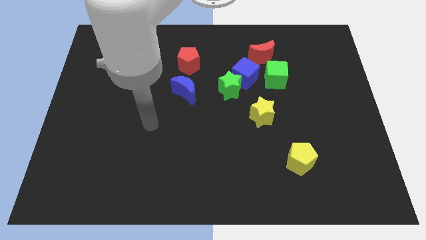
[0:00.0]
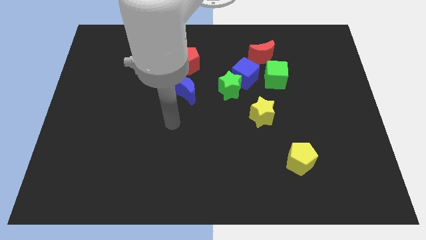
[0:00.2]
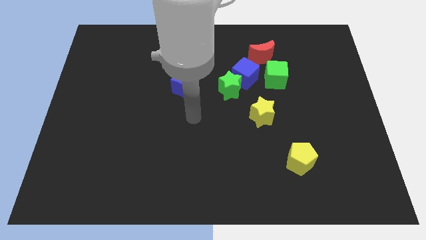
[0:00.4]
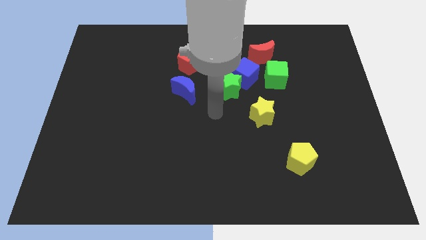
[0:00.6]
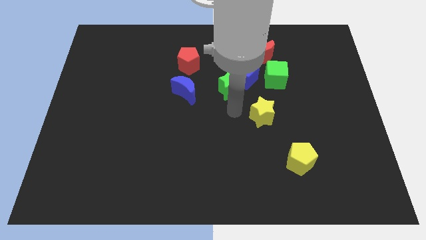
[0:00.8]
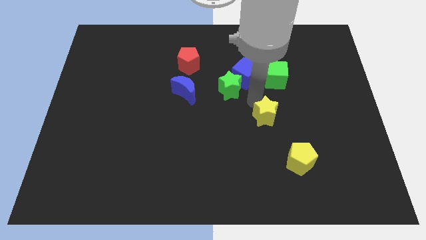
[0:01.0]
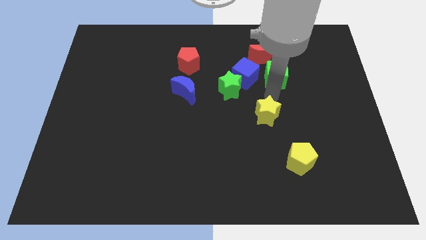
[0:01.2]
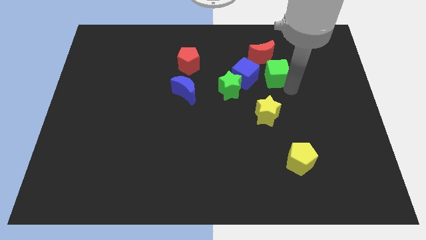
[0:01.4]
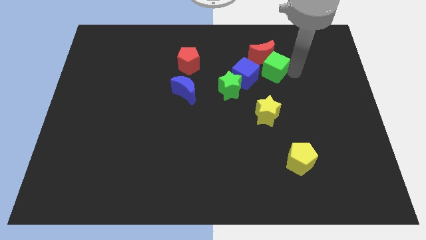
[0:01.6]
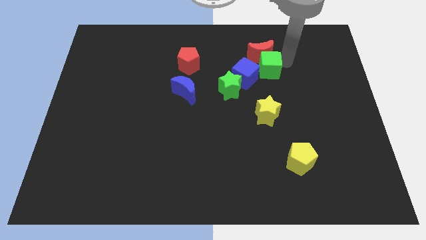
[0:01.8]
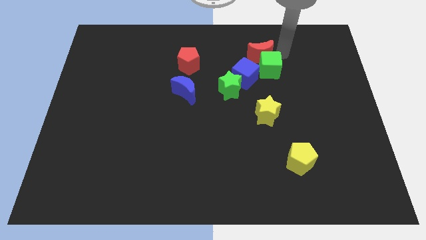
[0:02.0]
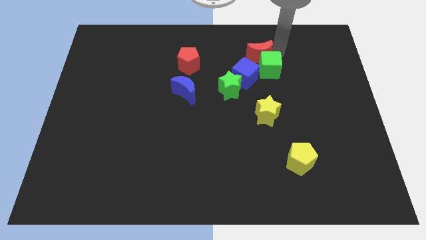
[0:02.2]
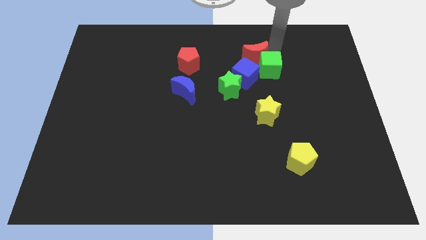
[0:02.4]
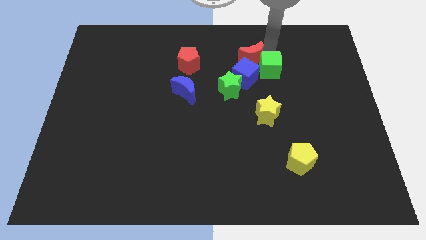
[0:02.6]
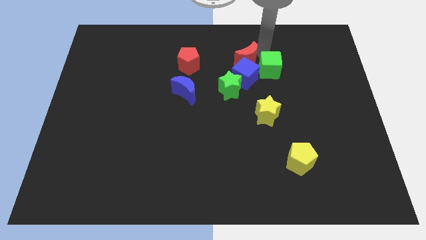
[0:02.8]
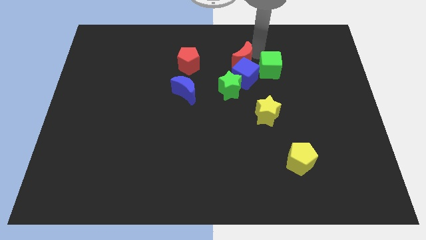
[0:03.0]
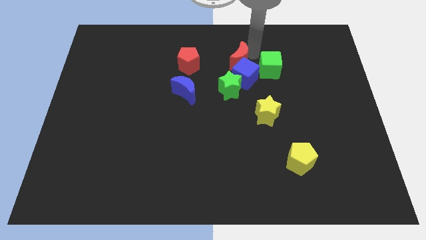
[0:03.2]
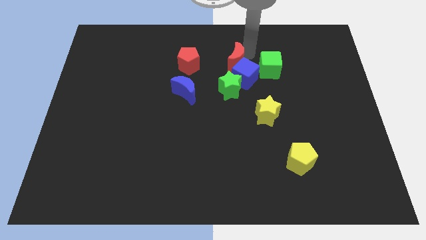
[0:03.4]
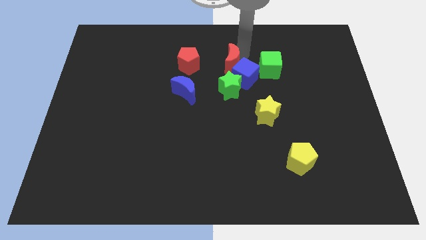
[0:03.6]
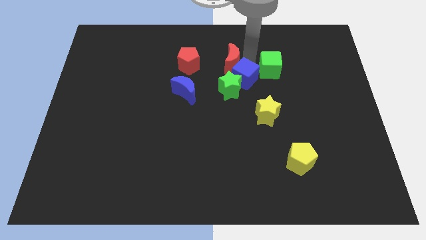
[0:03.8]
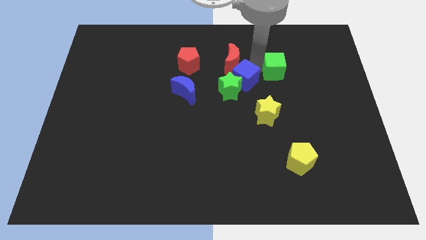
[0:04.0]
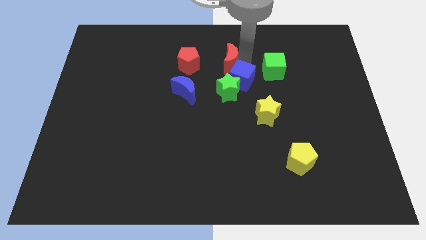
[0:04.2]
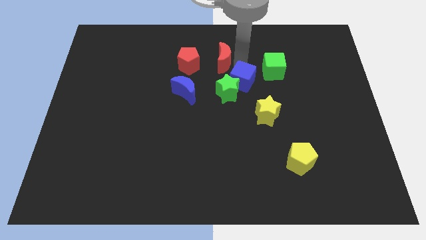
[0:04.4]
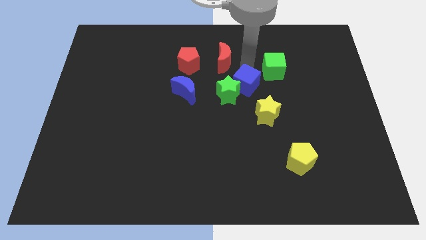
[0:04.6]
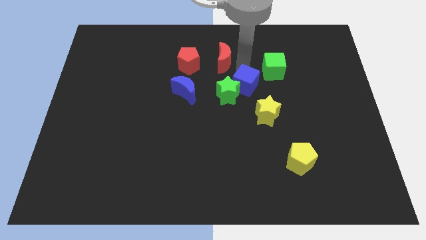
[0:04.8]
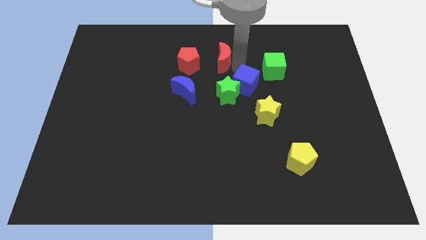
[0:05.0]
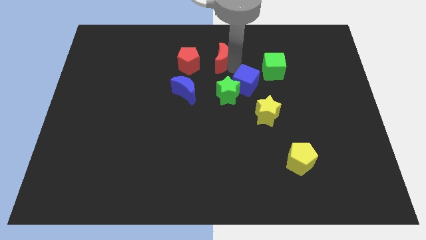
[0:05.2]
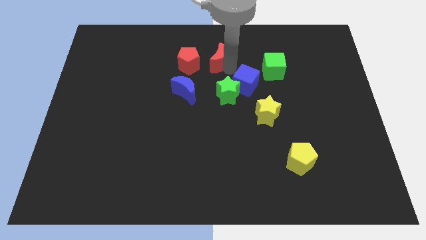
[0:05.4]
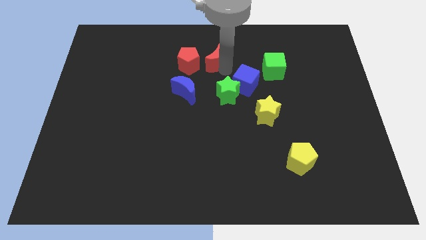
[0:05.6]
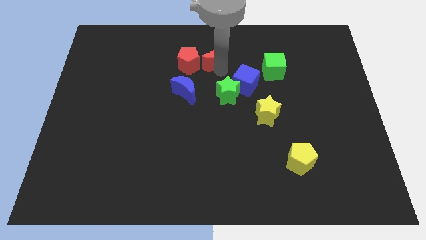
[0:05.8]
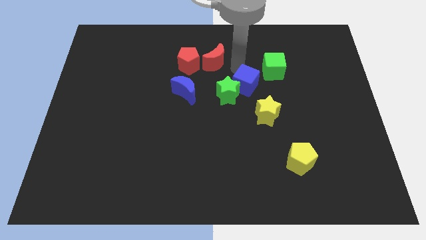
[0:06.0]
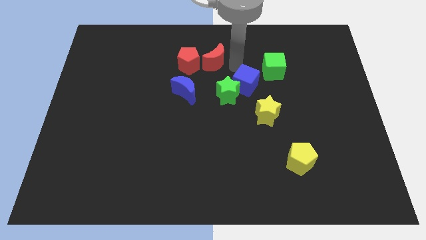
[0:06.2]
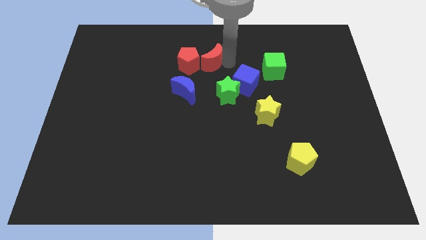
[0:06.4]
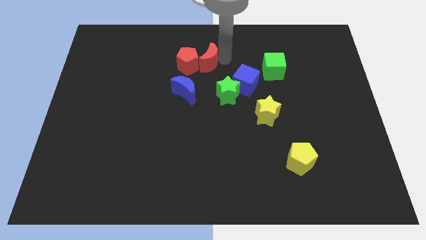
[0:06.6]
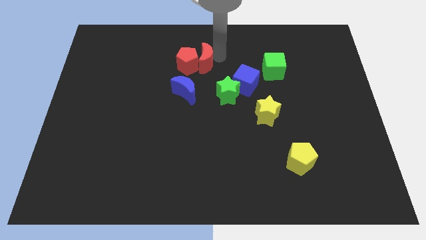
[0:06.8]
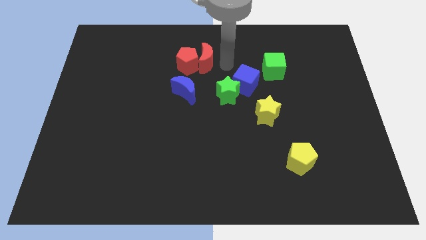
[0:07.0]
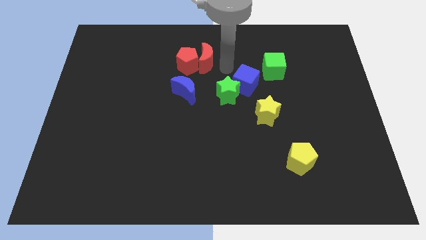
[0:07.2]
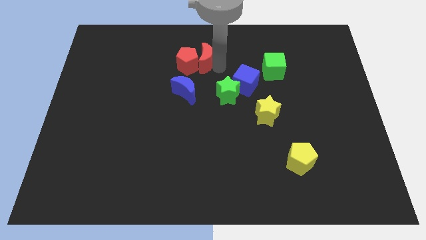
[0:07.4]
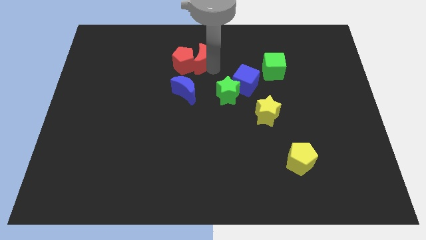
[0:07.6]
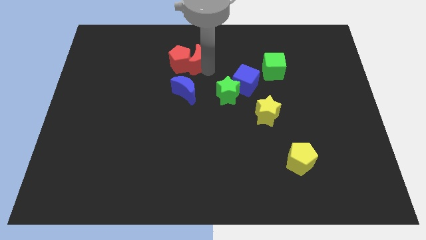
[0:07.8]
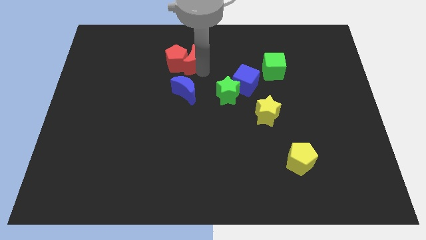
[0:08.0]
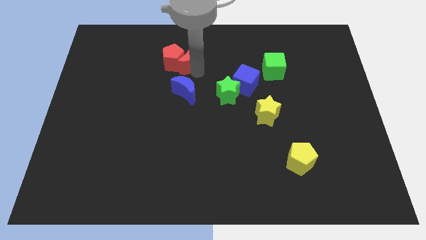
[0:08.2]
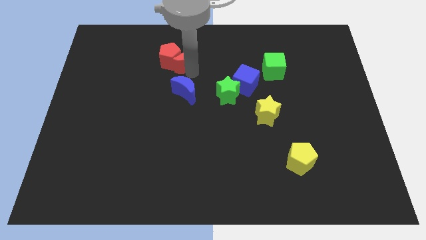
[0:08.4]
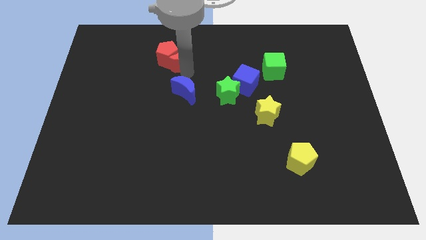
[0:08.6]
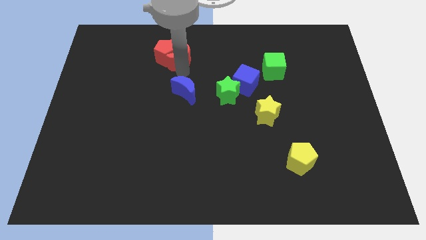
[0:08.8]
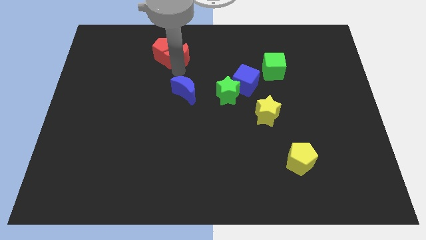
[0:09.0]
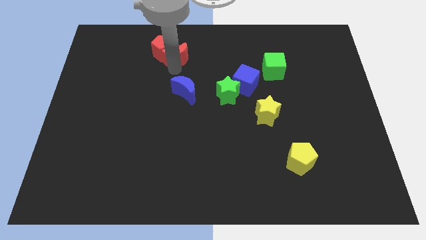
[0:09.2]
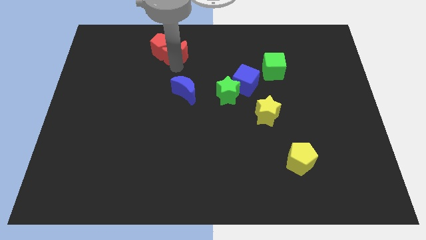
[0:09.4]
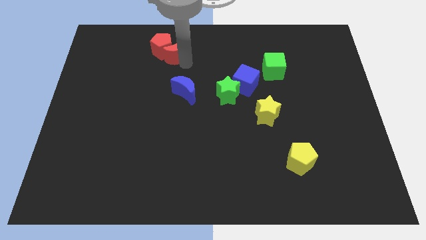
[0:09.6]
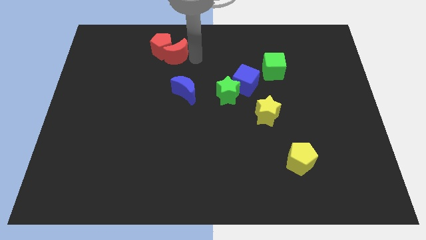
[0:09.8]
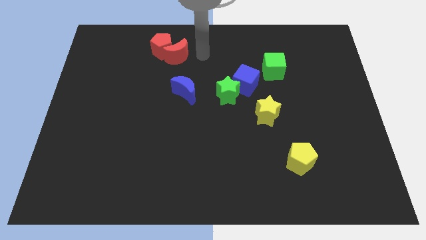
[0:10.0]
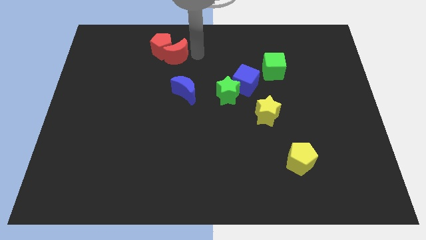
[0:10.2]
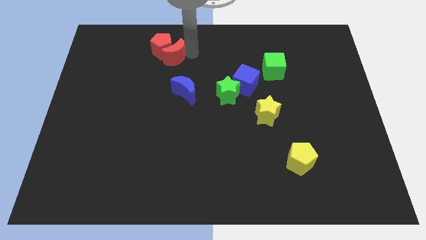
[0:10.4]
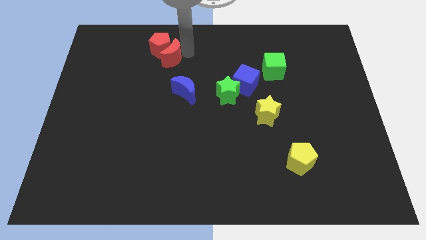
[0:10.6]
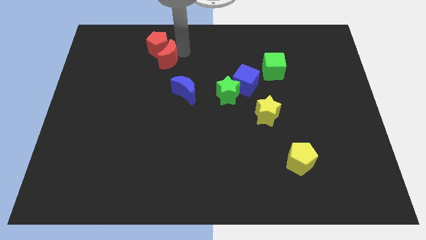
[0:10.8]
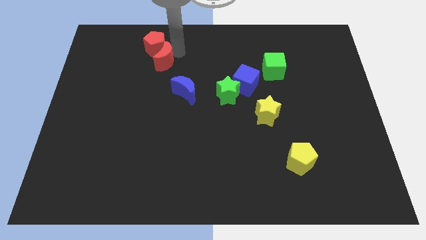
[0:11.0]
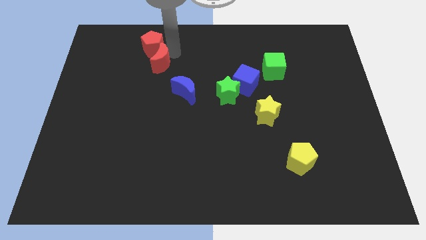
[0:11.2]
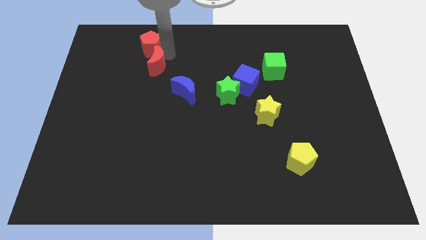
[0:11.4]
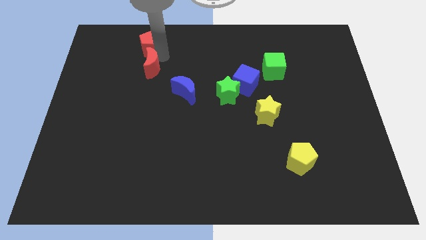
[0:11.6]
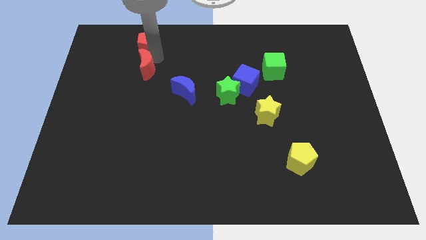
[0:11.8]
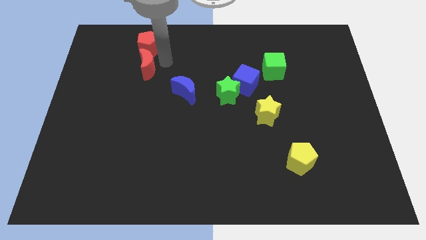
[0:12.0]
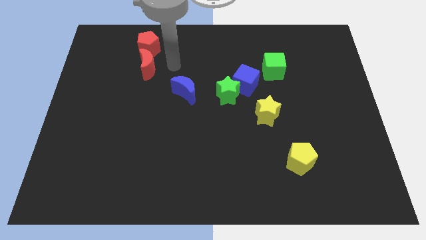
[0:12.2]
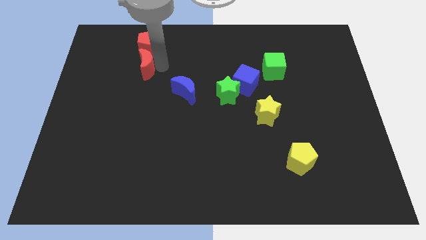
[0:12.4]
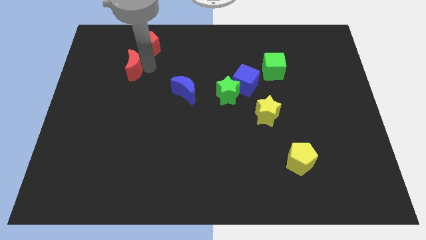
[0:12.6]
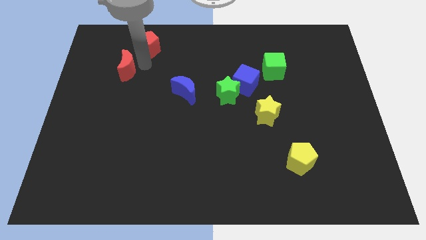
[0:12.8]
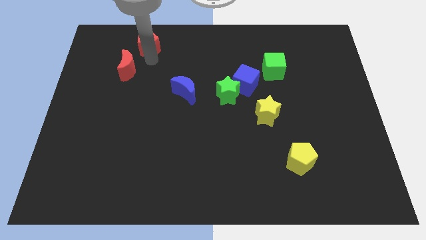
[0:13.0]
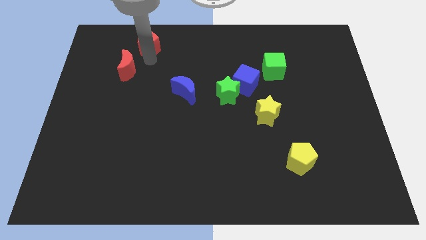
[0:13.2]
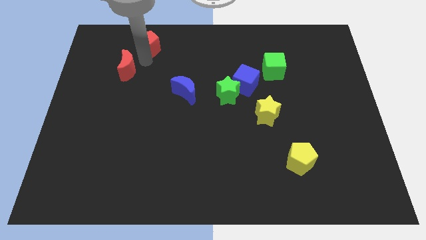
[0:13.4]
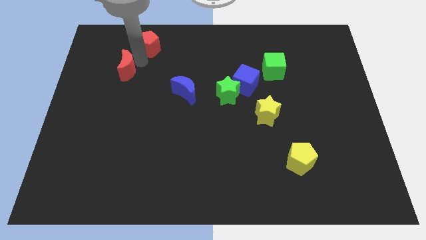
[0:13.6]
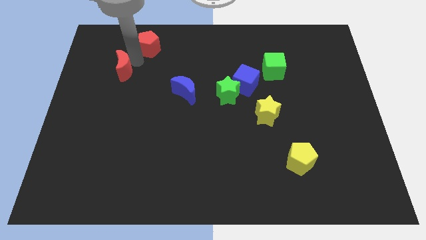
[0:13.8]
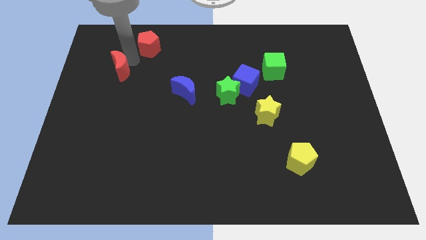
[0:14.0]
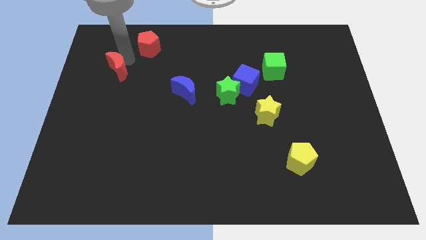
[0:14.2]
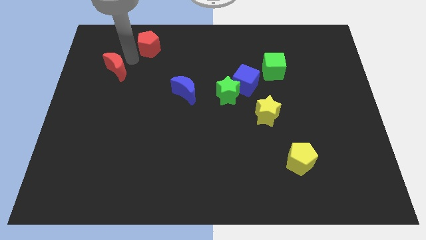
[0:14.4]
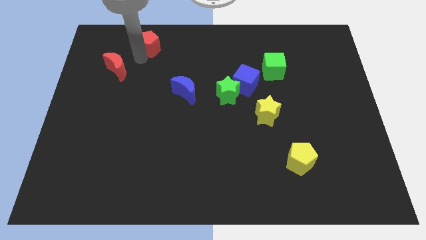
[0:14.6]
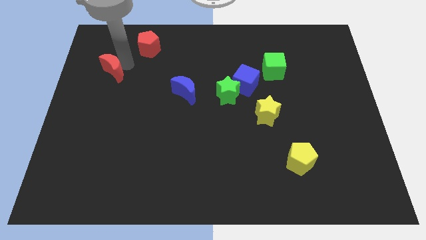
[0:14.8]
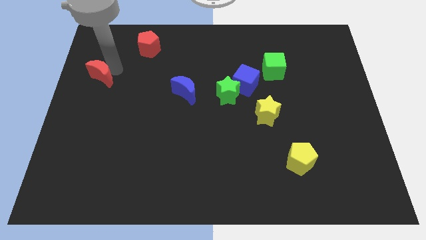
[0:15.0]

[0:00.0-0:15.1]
push the red moon to the left side of the board

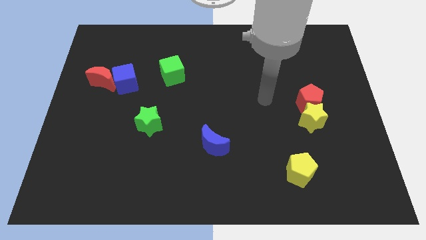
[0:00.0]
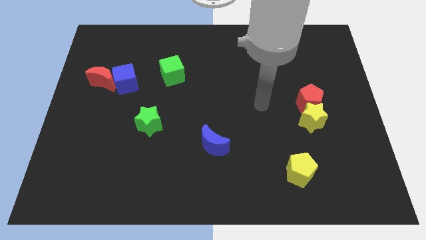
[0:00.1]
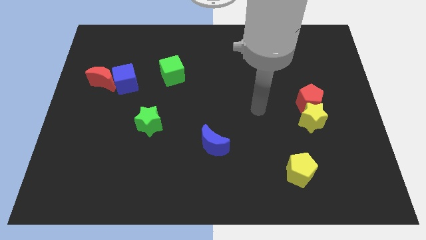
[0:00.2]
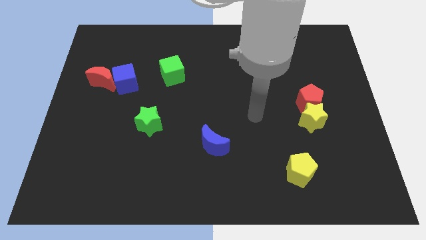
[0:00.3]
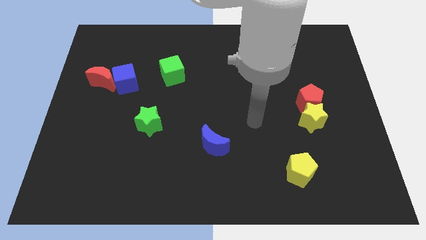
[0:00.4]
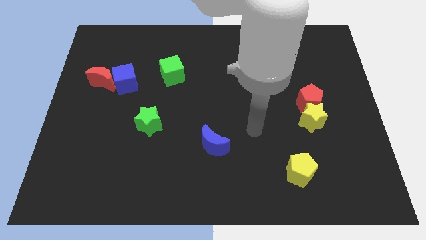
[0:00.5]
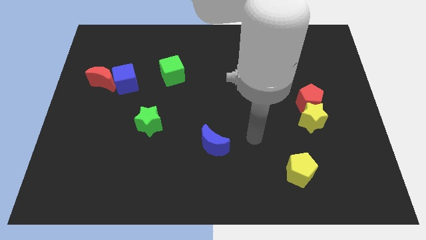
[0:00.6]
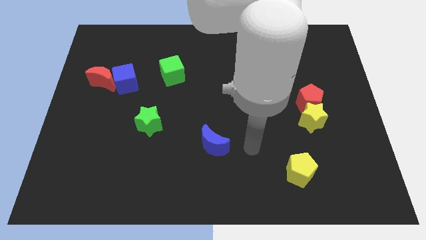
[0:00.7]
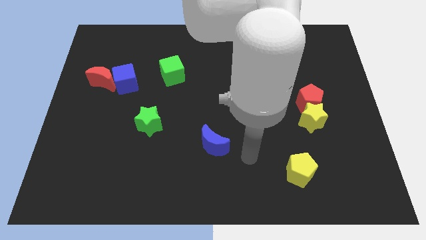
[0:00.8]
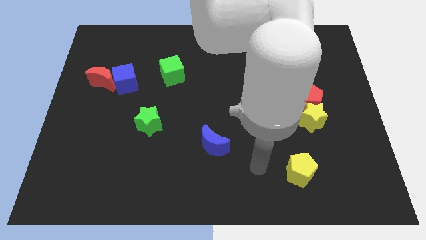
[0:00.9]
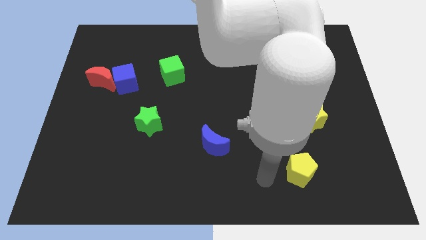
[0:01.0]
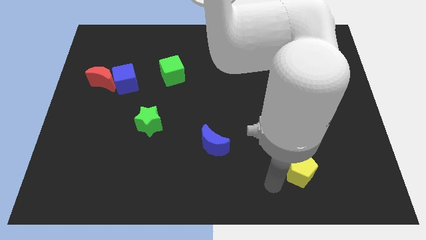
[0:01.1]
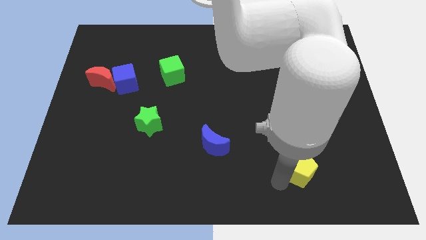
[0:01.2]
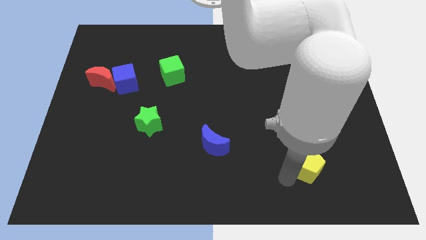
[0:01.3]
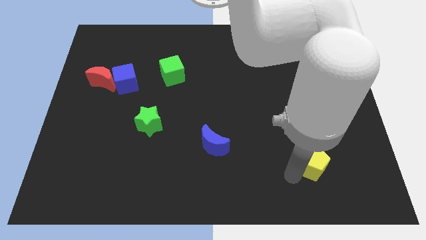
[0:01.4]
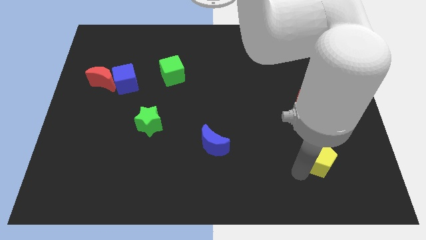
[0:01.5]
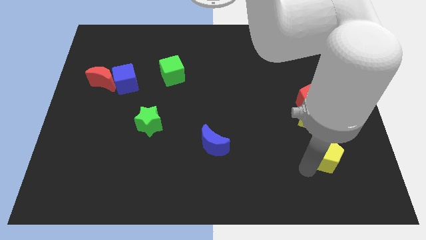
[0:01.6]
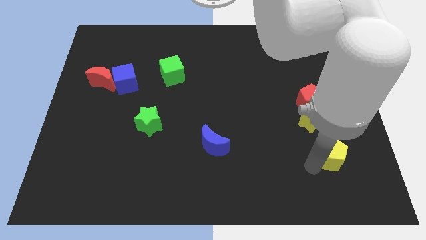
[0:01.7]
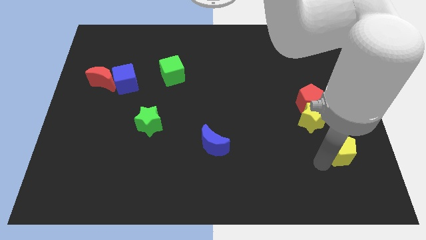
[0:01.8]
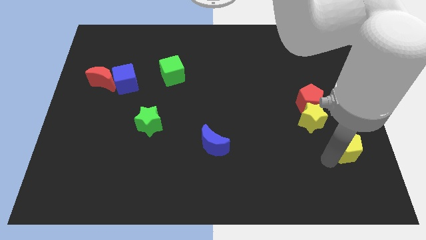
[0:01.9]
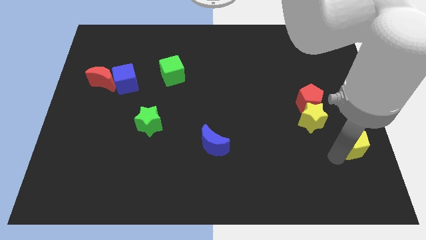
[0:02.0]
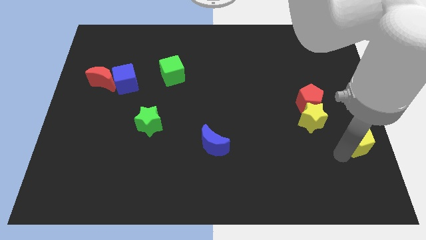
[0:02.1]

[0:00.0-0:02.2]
put the yellow pentagon to the right side
